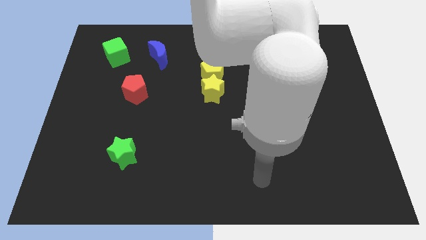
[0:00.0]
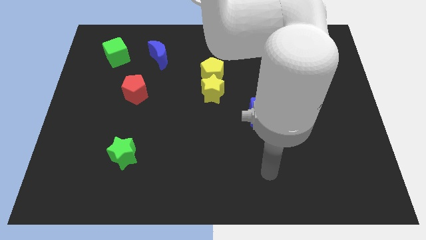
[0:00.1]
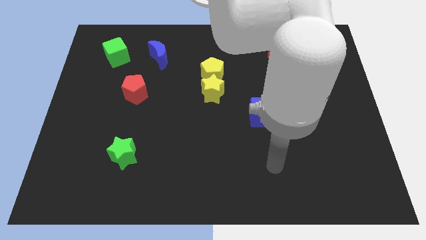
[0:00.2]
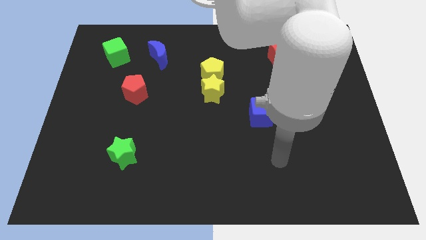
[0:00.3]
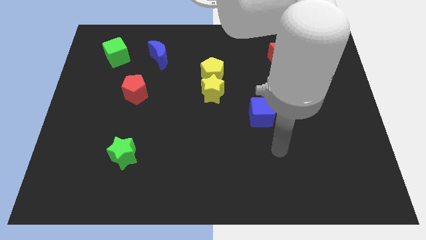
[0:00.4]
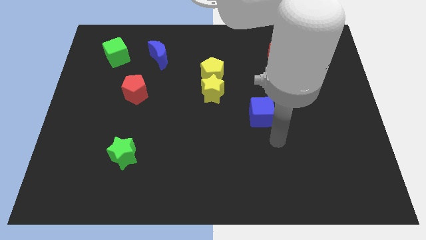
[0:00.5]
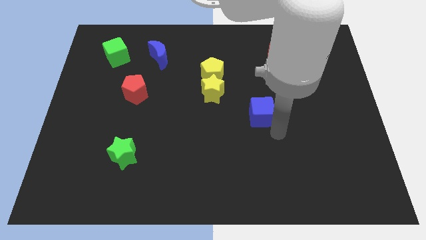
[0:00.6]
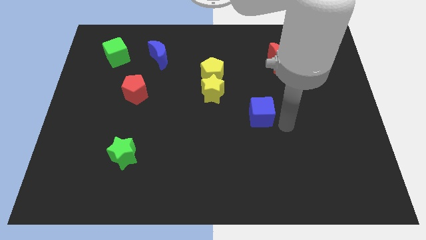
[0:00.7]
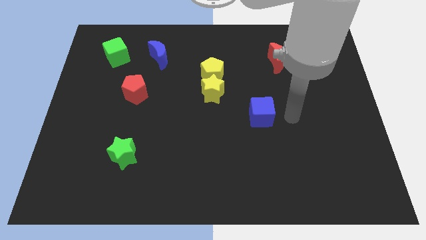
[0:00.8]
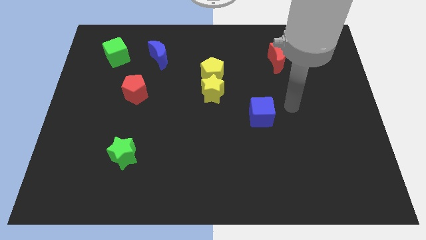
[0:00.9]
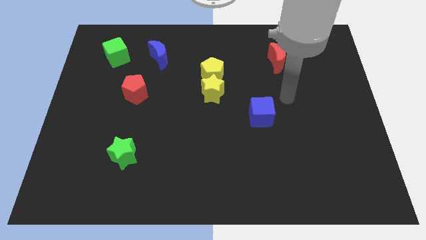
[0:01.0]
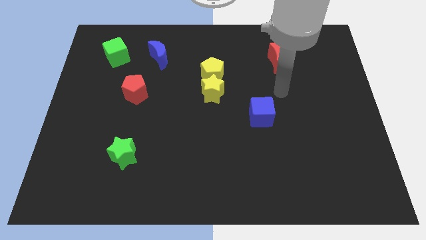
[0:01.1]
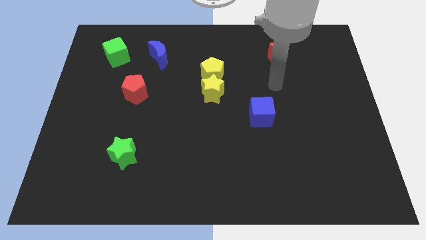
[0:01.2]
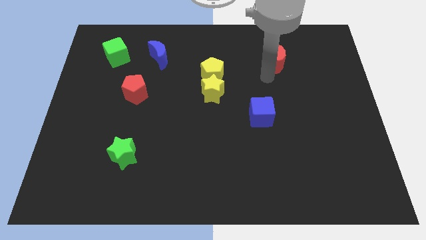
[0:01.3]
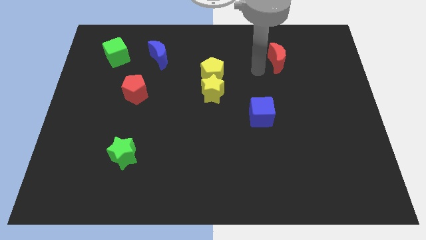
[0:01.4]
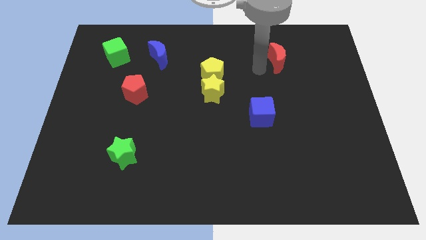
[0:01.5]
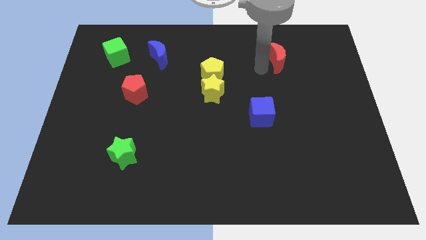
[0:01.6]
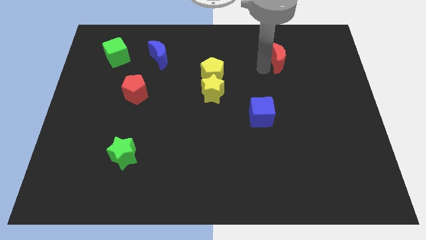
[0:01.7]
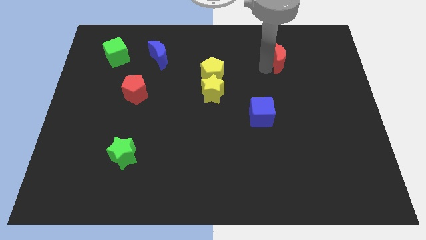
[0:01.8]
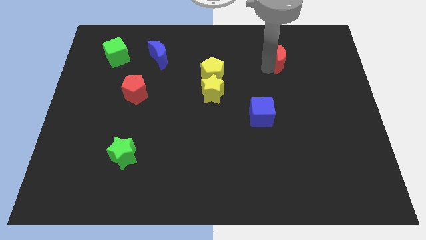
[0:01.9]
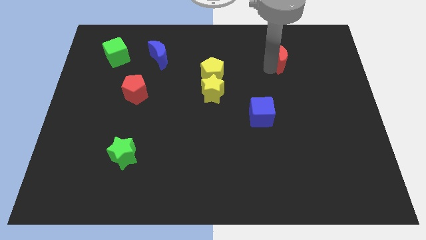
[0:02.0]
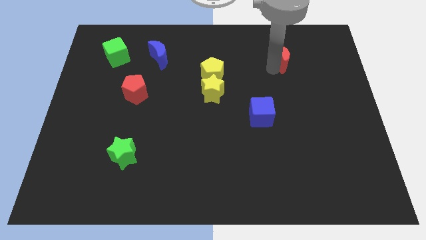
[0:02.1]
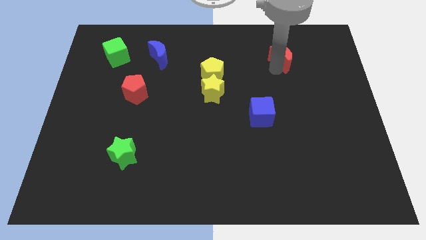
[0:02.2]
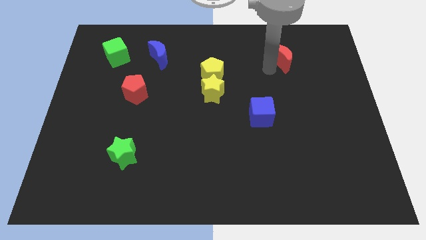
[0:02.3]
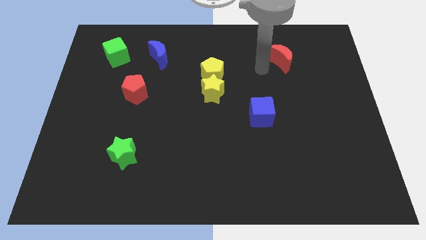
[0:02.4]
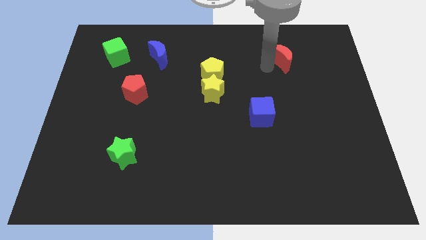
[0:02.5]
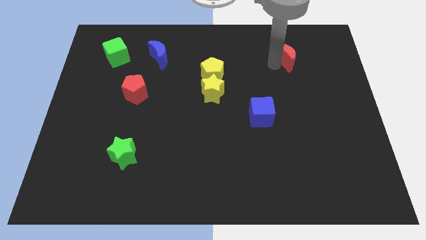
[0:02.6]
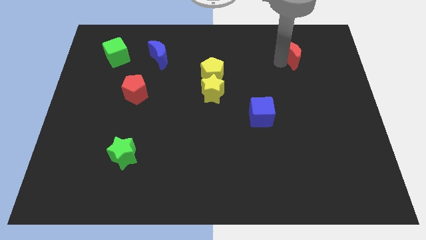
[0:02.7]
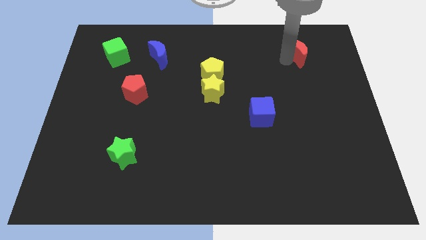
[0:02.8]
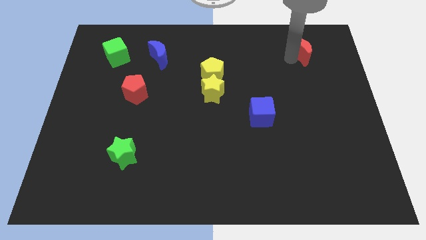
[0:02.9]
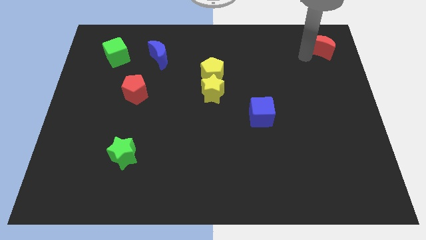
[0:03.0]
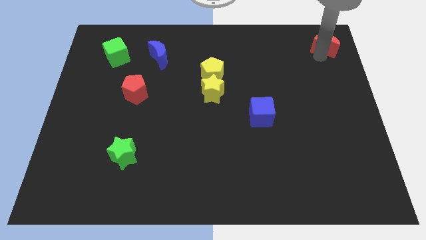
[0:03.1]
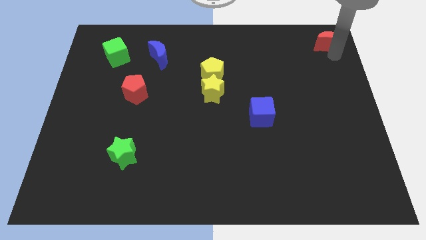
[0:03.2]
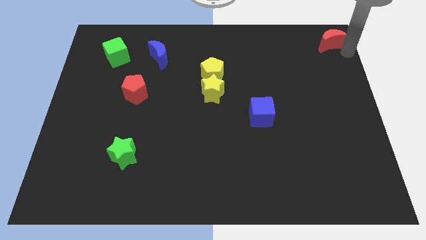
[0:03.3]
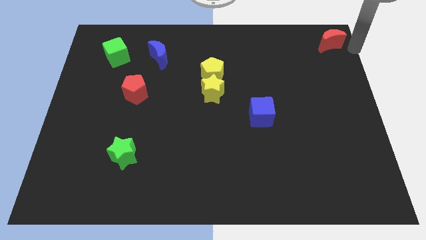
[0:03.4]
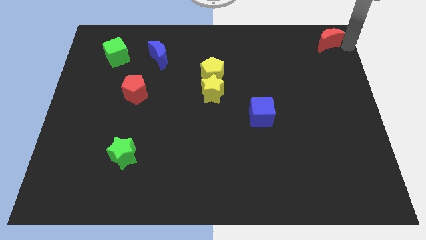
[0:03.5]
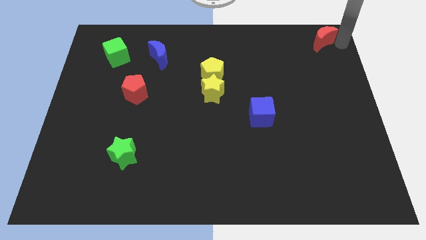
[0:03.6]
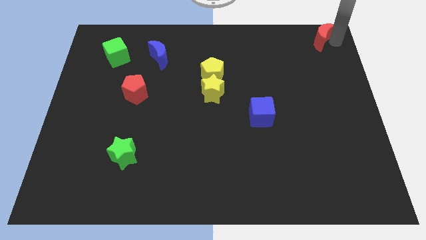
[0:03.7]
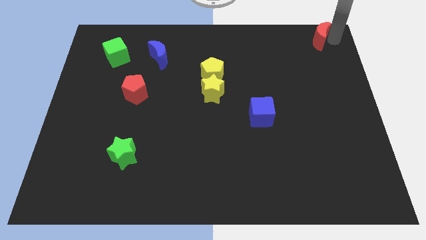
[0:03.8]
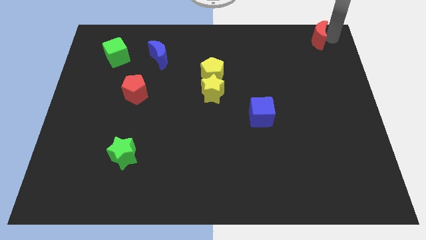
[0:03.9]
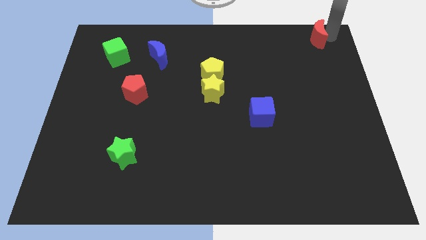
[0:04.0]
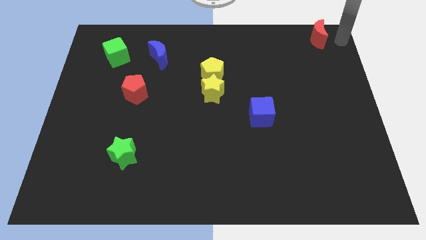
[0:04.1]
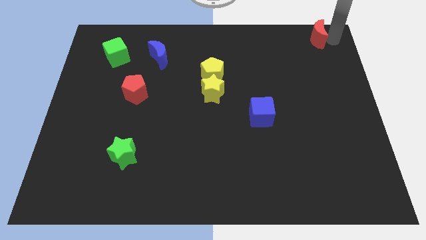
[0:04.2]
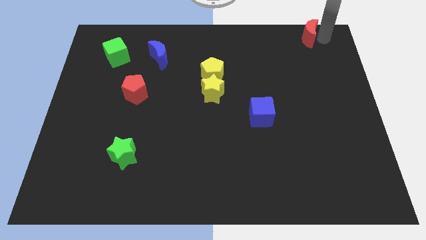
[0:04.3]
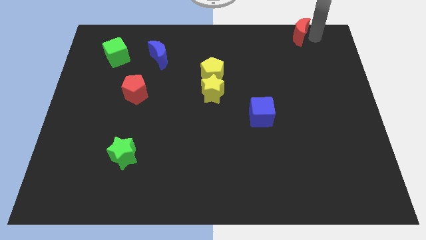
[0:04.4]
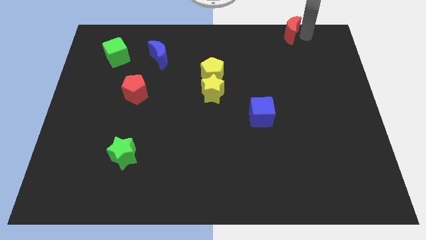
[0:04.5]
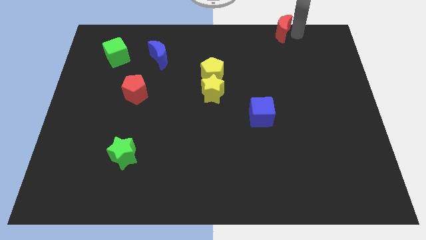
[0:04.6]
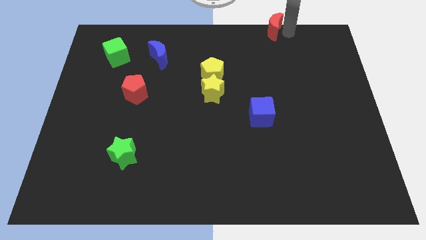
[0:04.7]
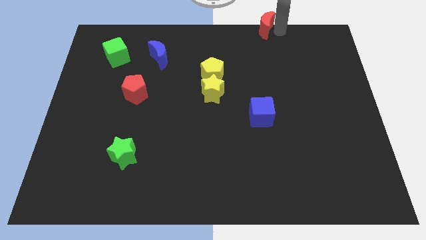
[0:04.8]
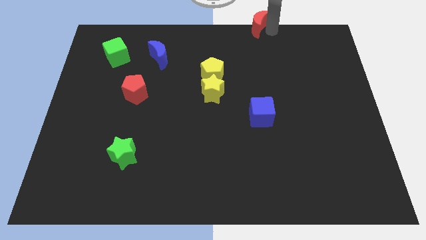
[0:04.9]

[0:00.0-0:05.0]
move the red moon to the towards your base

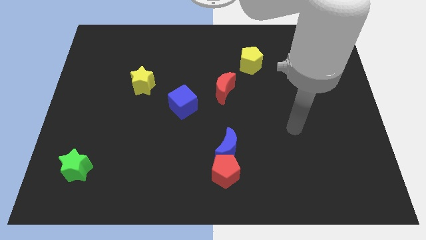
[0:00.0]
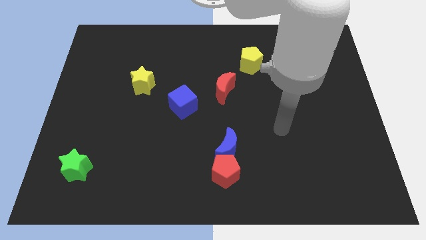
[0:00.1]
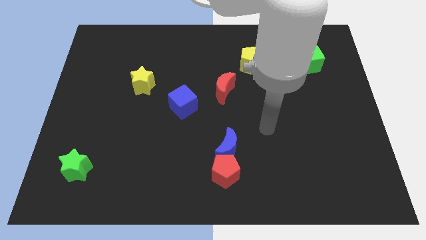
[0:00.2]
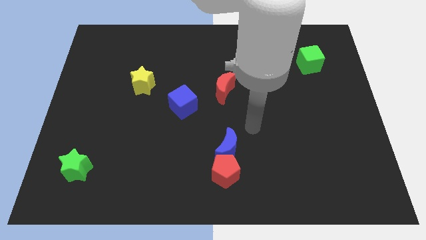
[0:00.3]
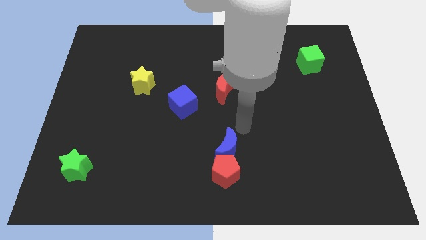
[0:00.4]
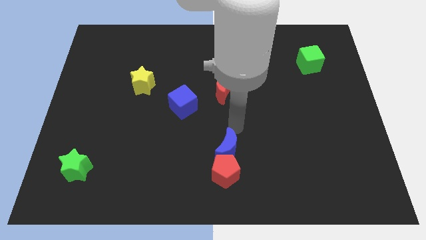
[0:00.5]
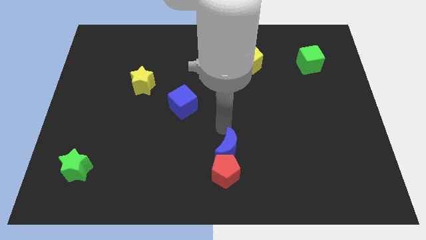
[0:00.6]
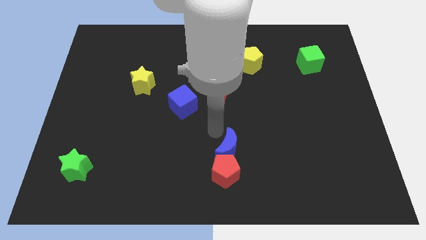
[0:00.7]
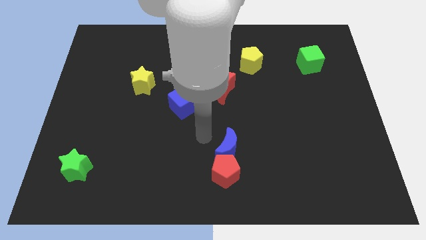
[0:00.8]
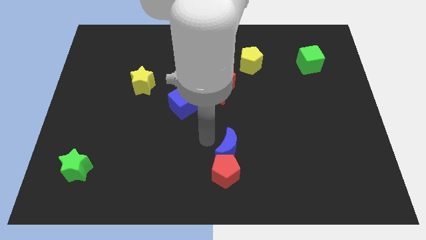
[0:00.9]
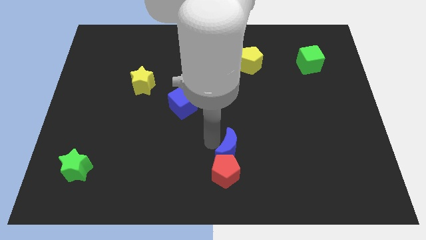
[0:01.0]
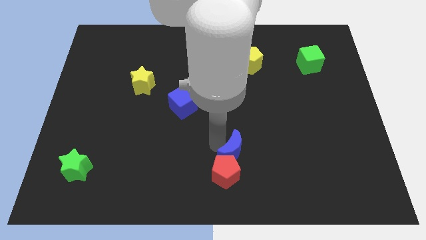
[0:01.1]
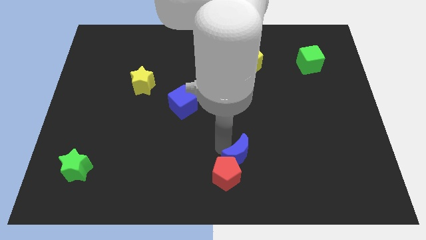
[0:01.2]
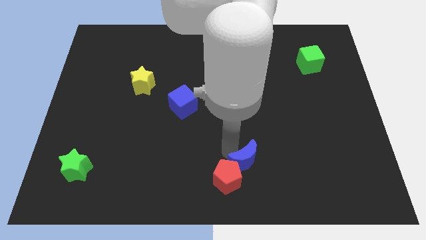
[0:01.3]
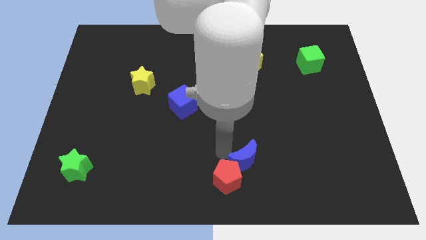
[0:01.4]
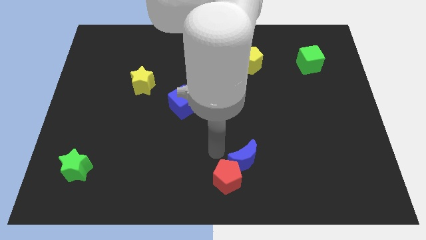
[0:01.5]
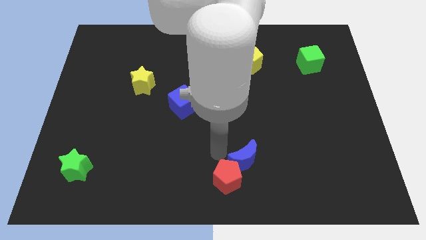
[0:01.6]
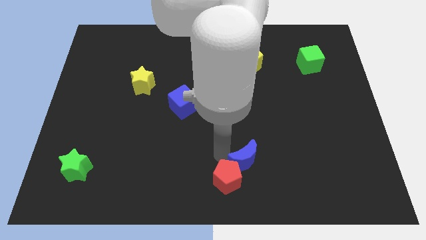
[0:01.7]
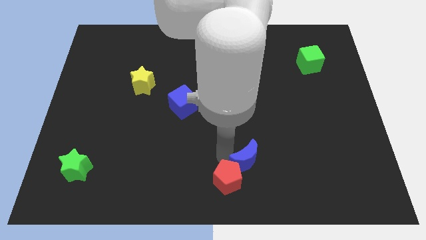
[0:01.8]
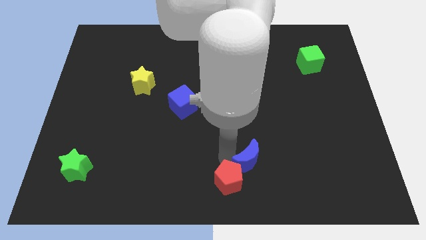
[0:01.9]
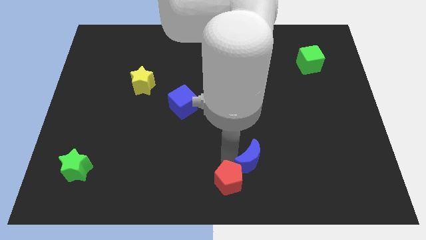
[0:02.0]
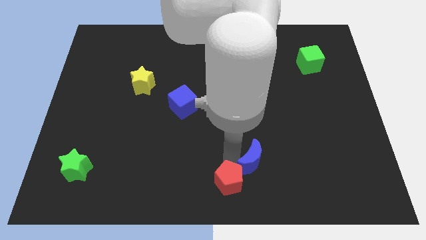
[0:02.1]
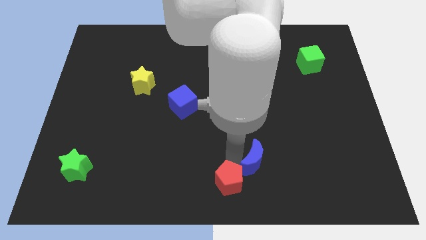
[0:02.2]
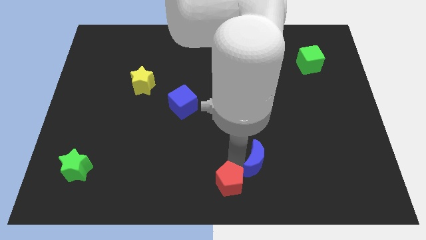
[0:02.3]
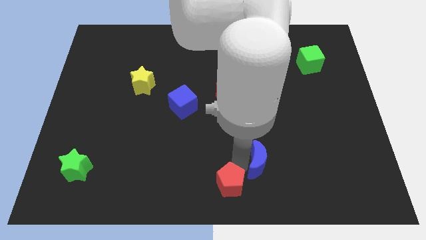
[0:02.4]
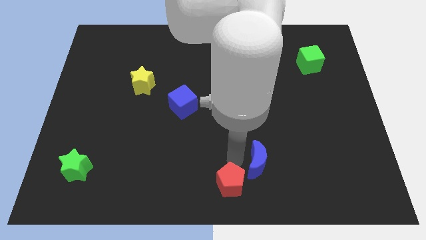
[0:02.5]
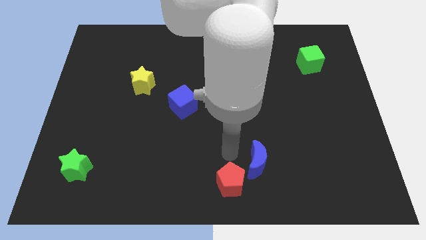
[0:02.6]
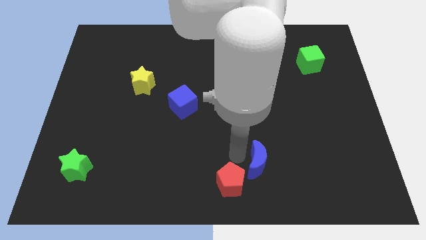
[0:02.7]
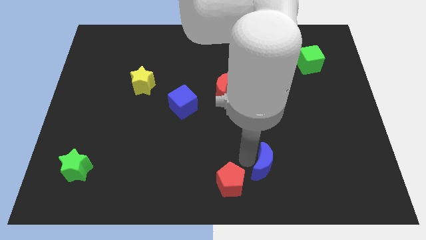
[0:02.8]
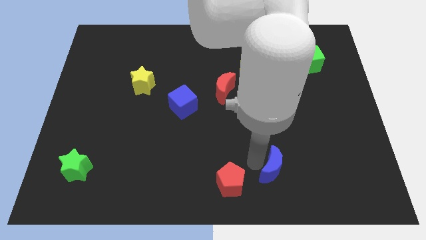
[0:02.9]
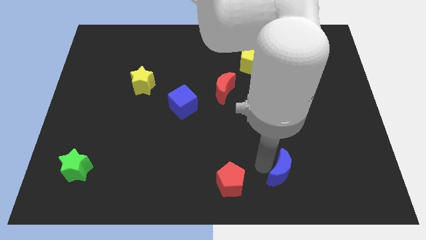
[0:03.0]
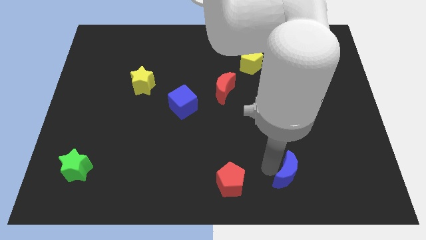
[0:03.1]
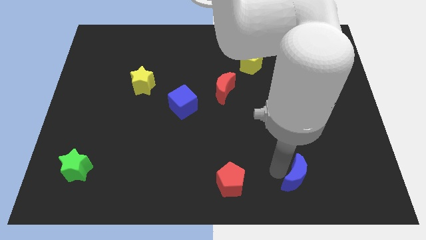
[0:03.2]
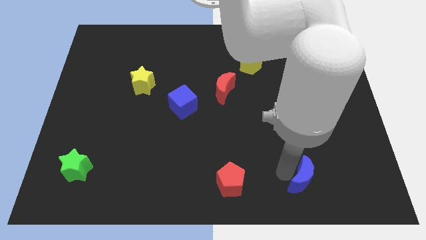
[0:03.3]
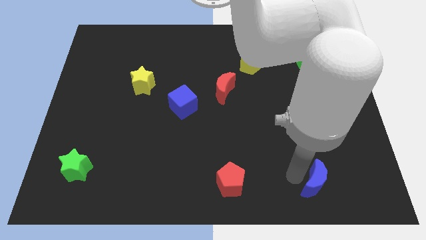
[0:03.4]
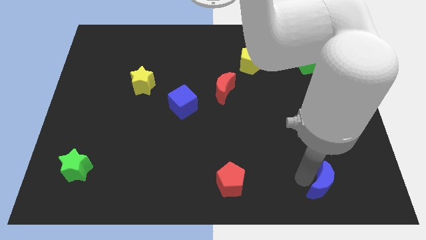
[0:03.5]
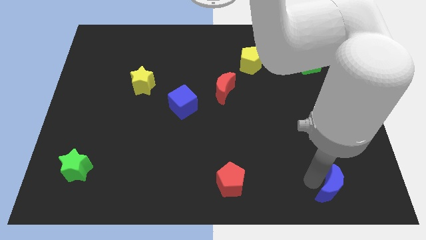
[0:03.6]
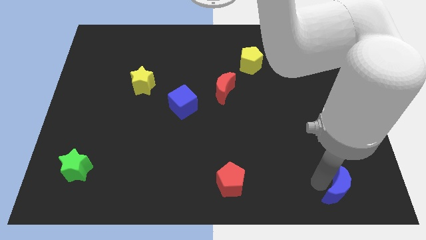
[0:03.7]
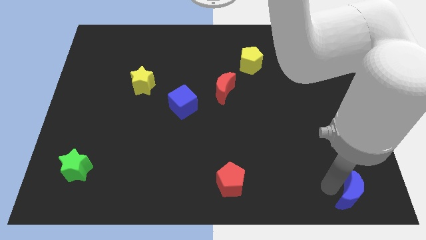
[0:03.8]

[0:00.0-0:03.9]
push the blue moon to the bottom right
